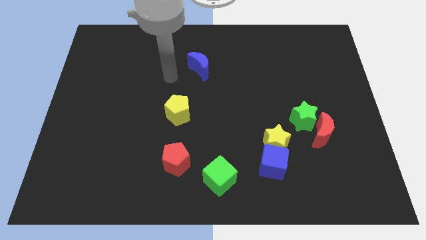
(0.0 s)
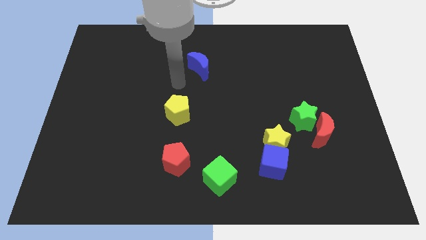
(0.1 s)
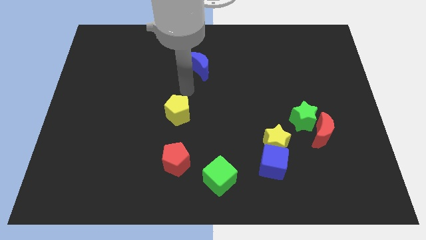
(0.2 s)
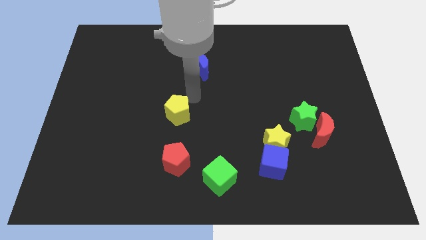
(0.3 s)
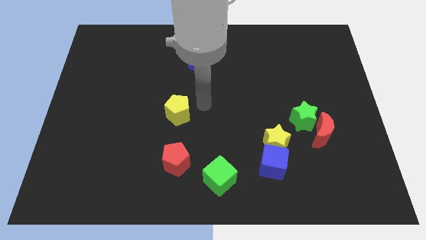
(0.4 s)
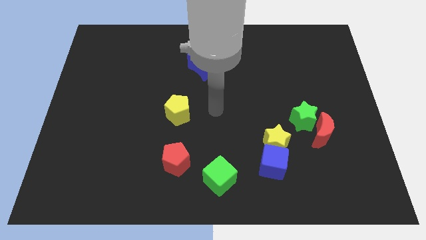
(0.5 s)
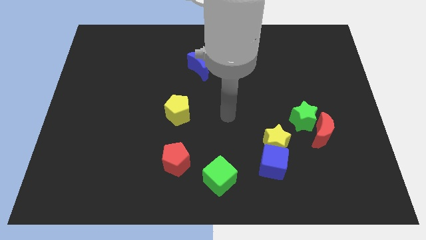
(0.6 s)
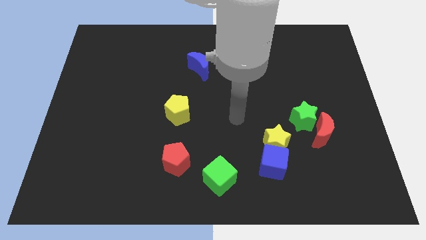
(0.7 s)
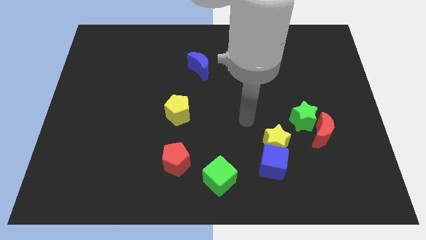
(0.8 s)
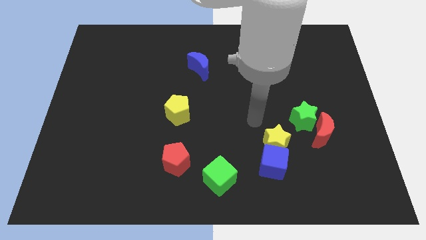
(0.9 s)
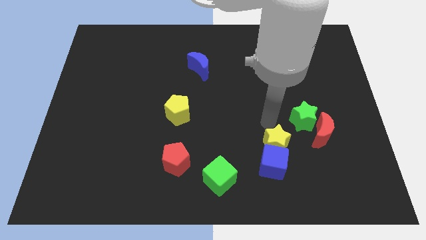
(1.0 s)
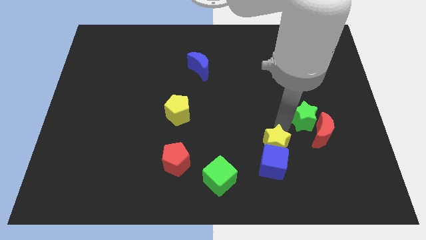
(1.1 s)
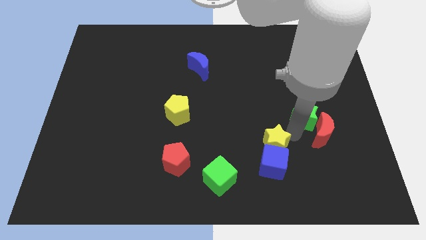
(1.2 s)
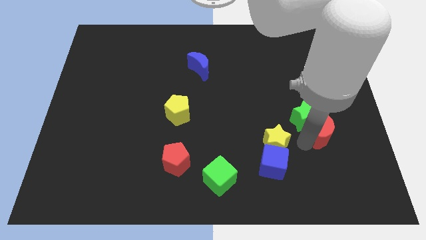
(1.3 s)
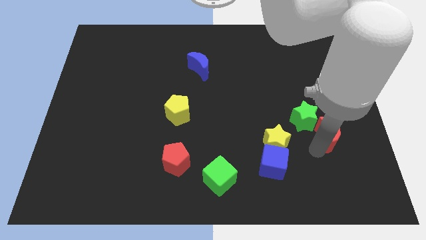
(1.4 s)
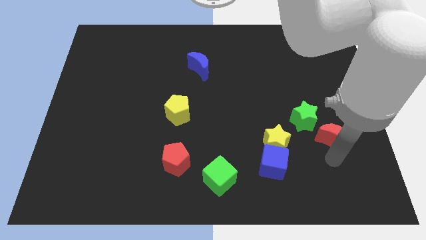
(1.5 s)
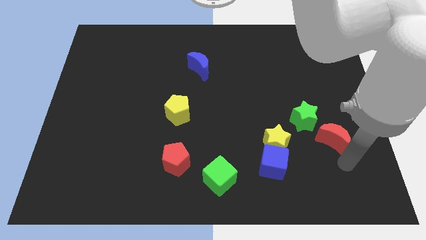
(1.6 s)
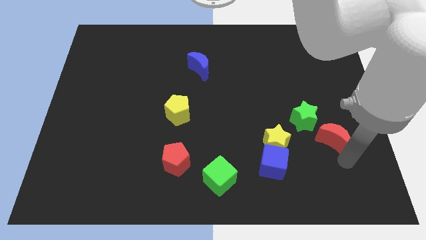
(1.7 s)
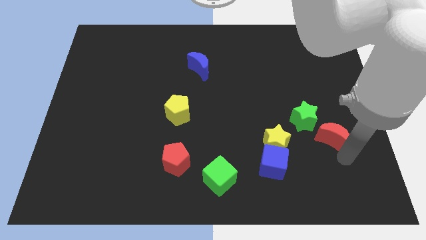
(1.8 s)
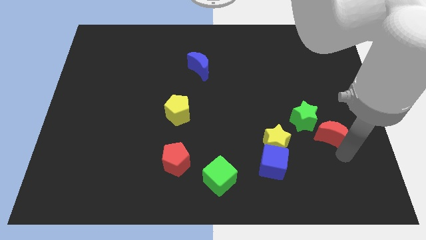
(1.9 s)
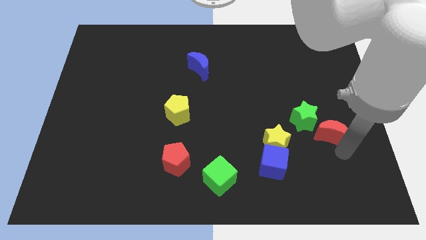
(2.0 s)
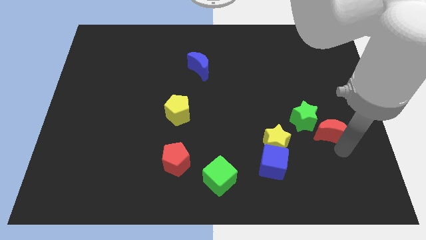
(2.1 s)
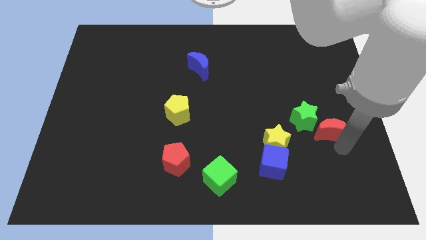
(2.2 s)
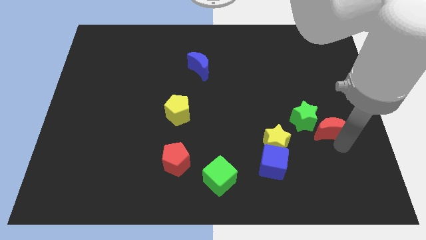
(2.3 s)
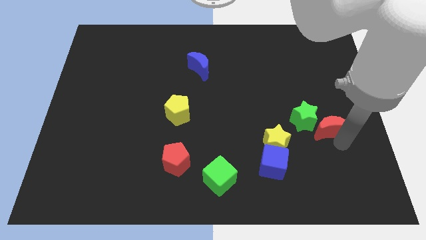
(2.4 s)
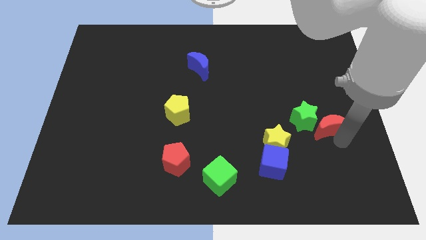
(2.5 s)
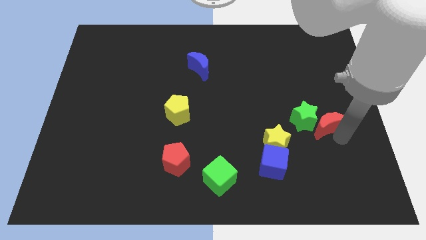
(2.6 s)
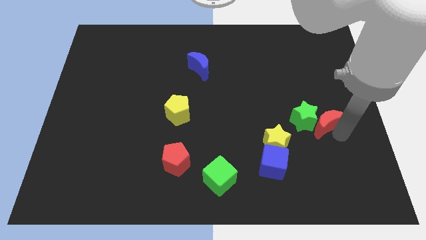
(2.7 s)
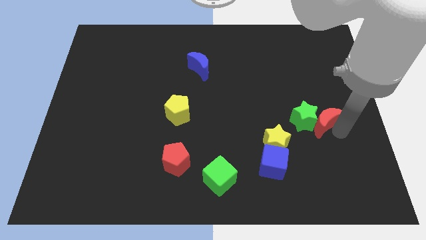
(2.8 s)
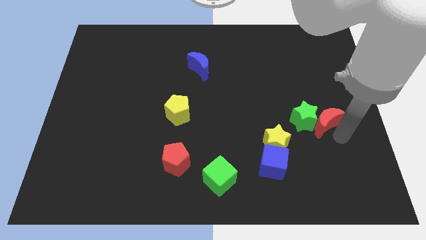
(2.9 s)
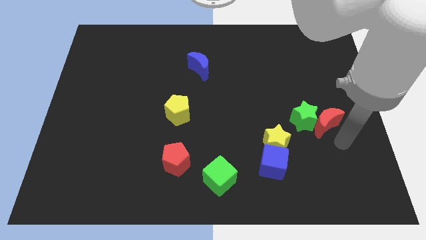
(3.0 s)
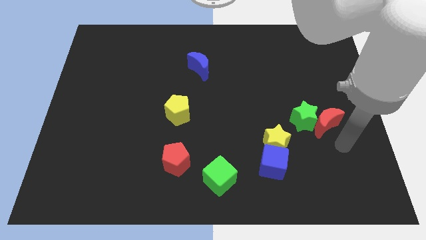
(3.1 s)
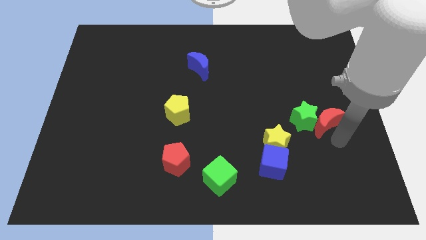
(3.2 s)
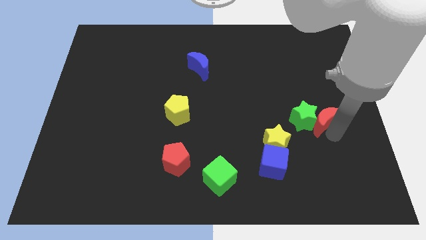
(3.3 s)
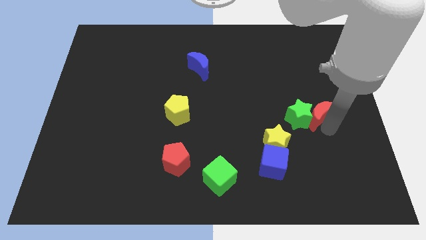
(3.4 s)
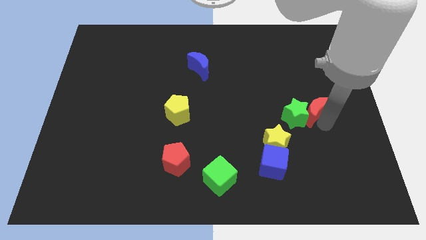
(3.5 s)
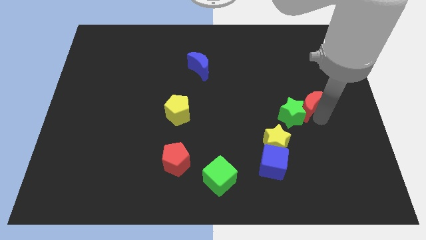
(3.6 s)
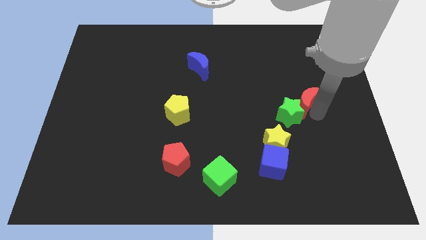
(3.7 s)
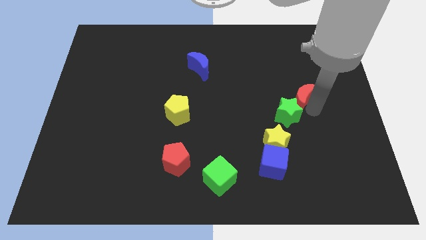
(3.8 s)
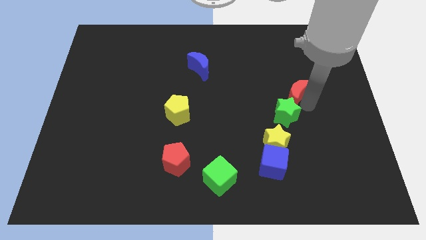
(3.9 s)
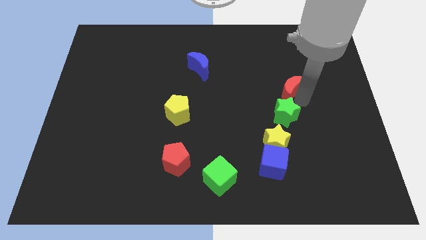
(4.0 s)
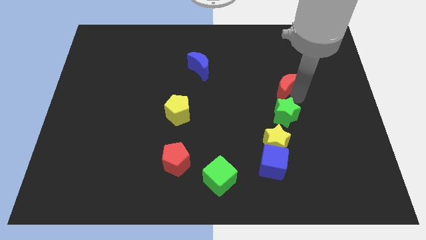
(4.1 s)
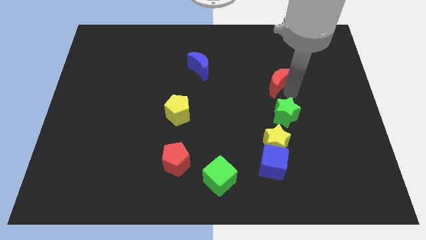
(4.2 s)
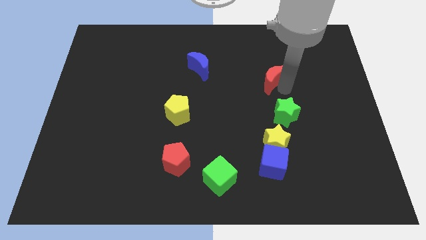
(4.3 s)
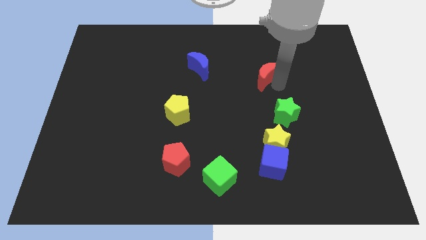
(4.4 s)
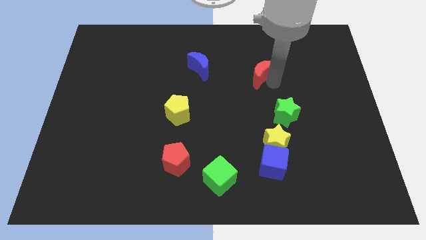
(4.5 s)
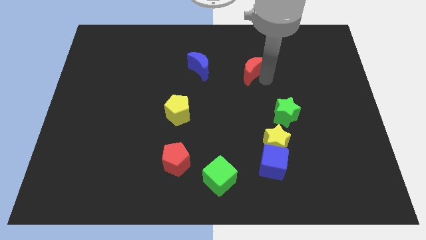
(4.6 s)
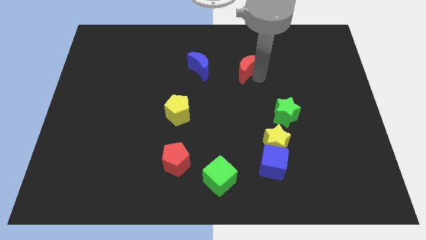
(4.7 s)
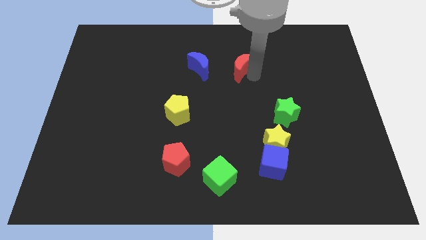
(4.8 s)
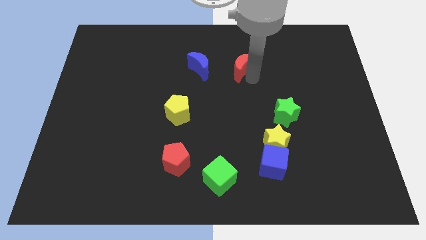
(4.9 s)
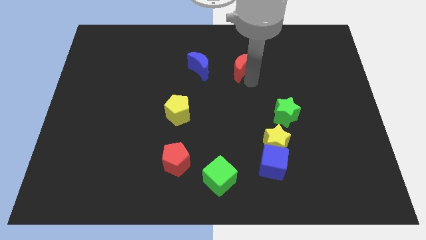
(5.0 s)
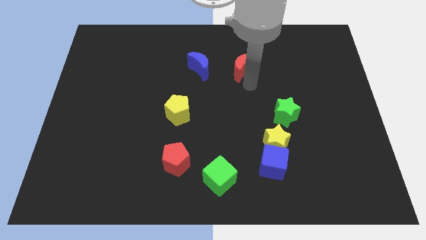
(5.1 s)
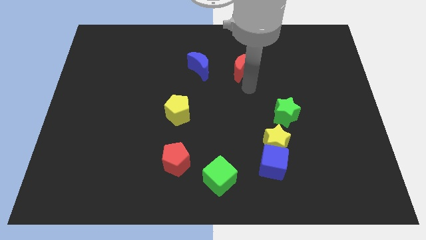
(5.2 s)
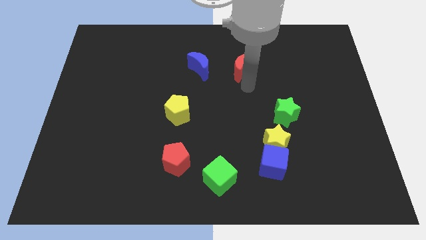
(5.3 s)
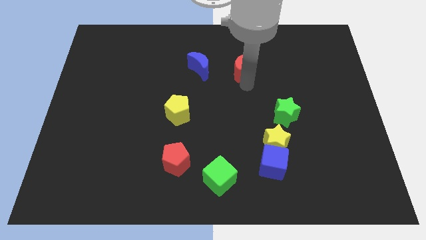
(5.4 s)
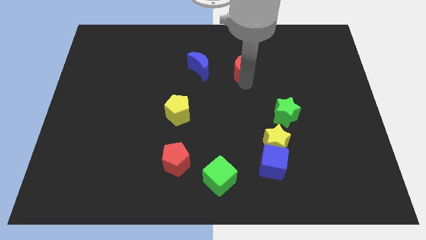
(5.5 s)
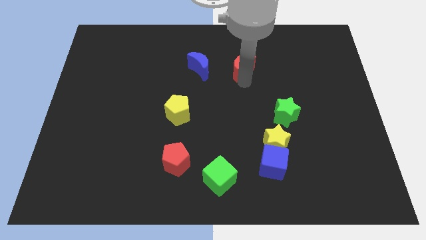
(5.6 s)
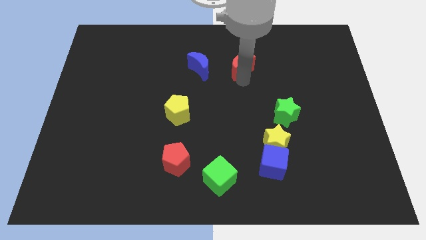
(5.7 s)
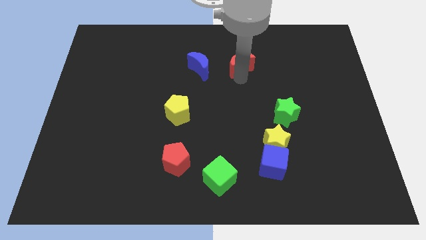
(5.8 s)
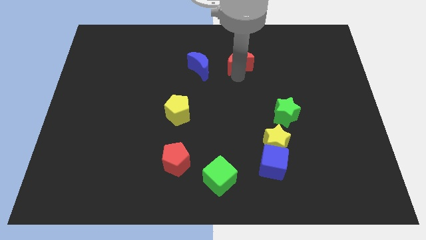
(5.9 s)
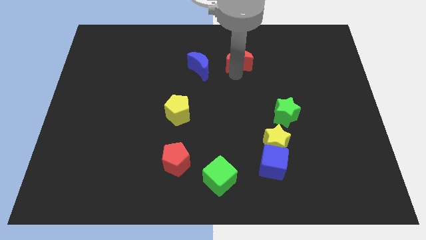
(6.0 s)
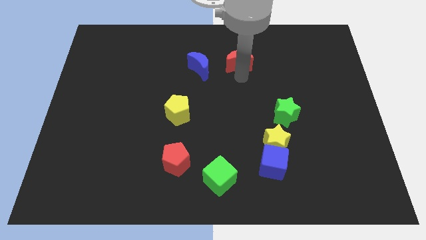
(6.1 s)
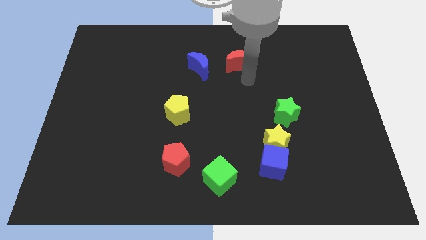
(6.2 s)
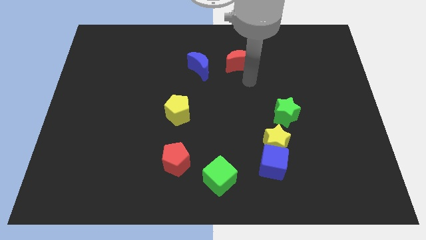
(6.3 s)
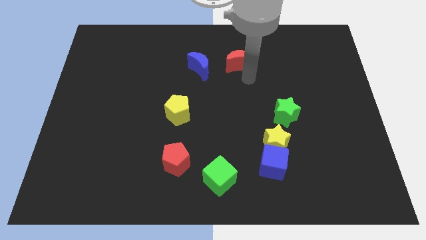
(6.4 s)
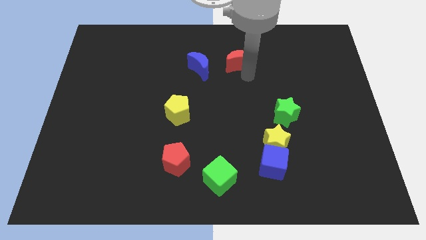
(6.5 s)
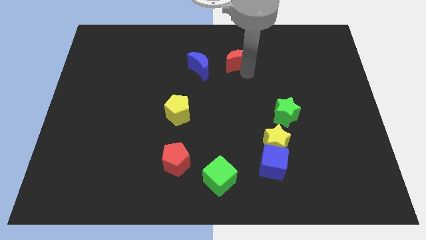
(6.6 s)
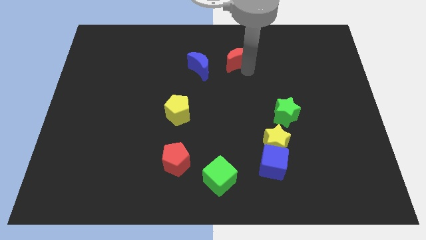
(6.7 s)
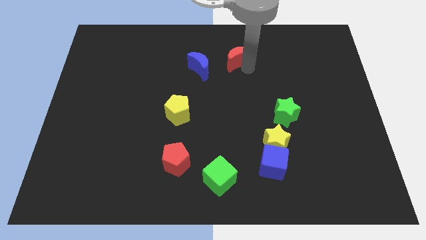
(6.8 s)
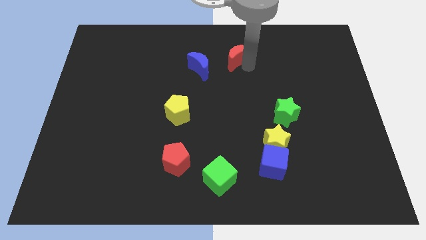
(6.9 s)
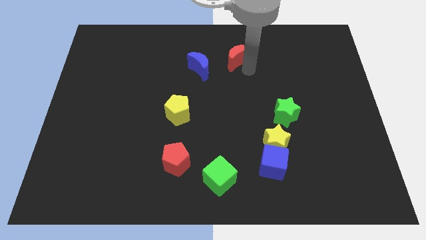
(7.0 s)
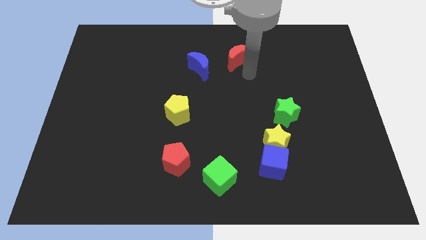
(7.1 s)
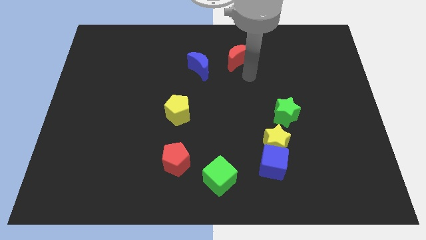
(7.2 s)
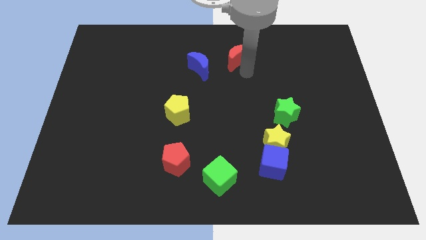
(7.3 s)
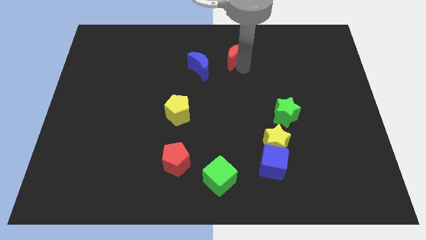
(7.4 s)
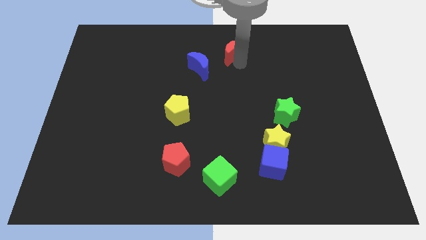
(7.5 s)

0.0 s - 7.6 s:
move the red moon to the top
